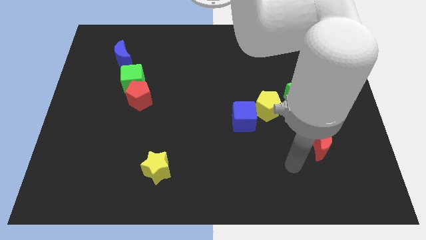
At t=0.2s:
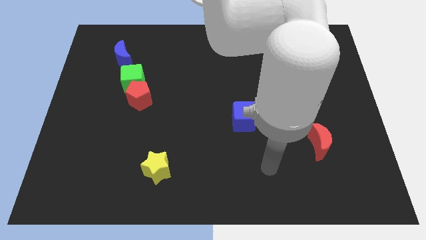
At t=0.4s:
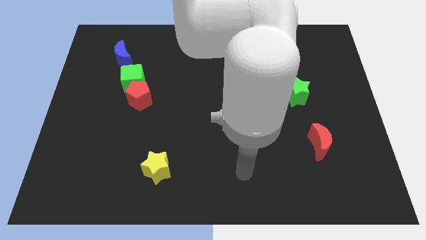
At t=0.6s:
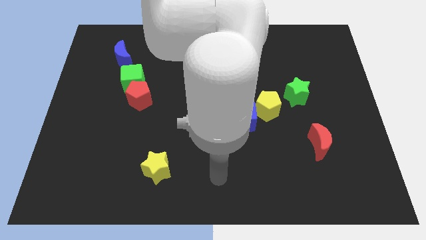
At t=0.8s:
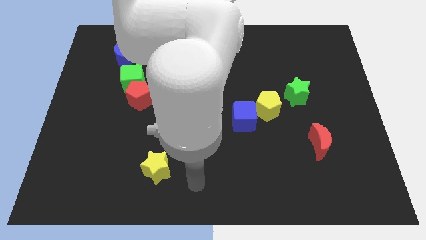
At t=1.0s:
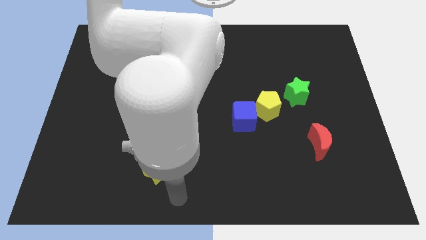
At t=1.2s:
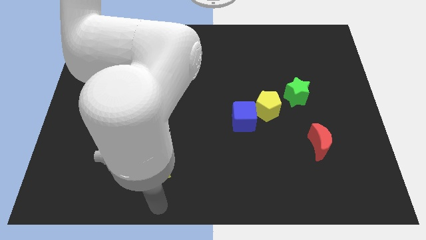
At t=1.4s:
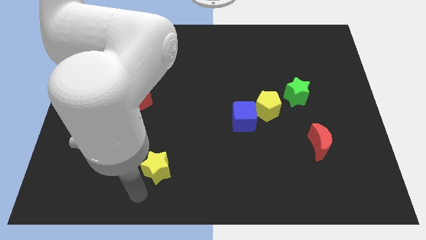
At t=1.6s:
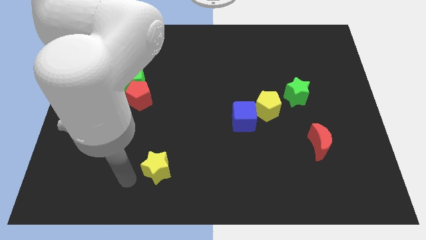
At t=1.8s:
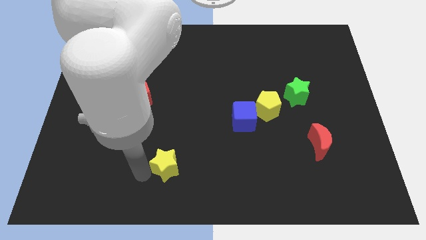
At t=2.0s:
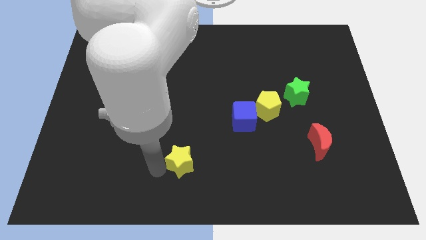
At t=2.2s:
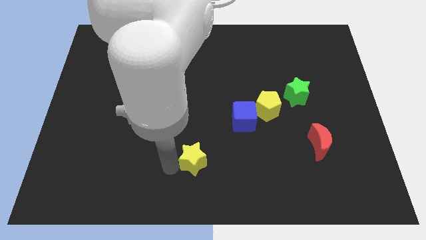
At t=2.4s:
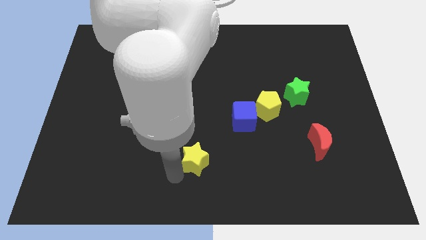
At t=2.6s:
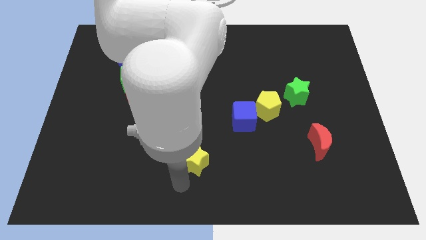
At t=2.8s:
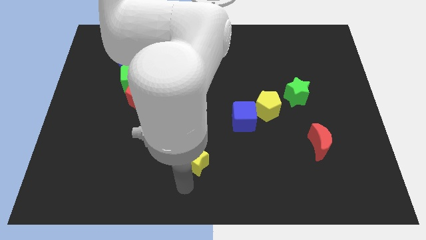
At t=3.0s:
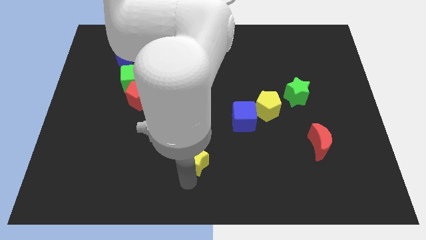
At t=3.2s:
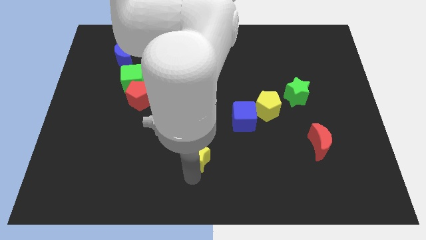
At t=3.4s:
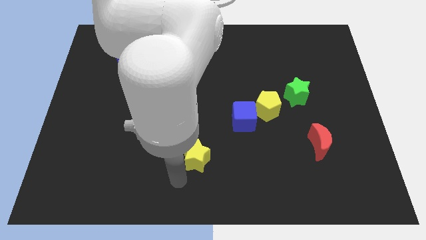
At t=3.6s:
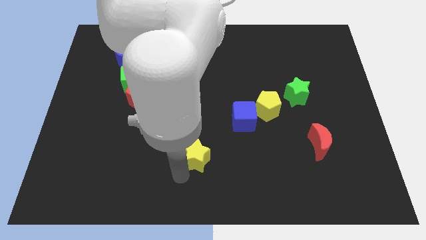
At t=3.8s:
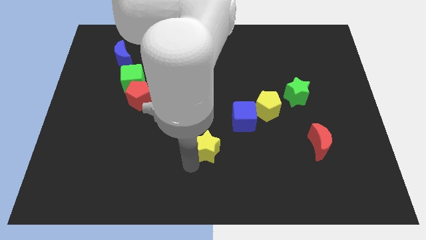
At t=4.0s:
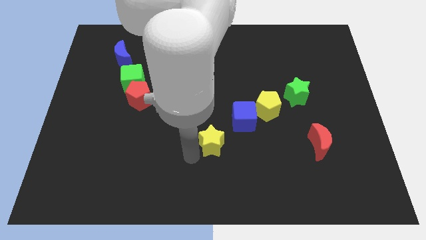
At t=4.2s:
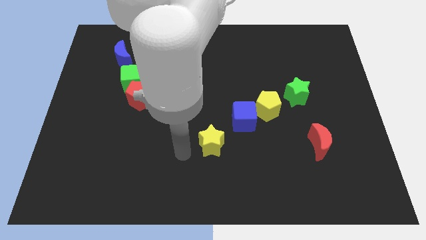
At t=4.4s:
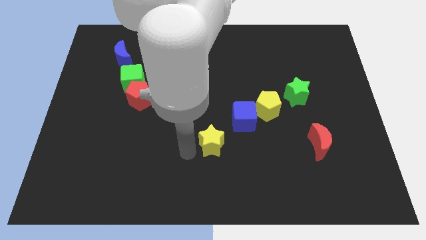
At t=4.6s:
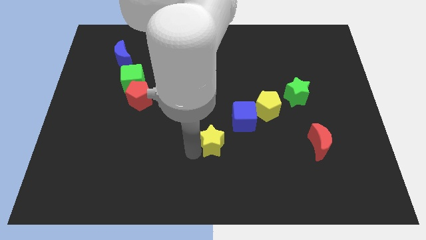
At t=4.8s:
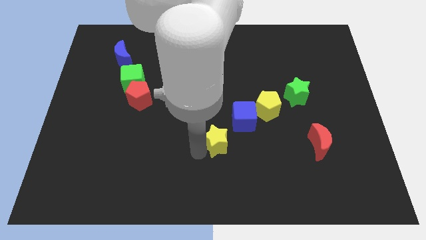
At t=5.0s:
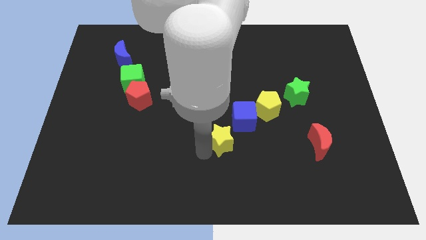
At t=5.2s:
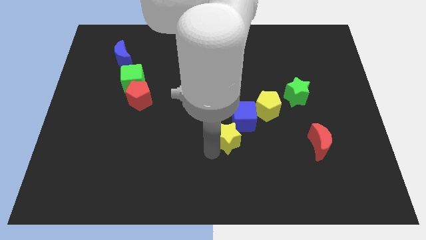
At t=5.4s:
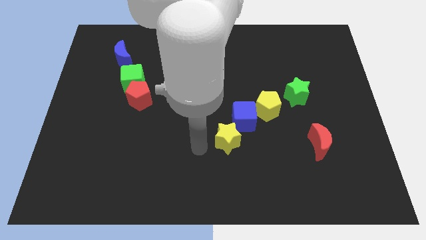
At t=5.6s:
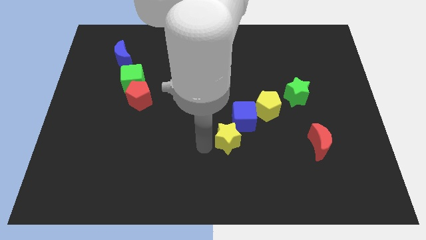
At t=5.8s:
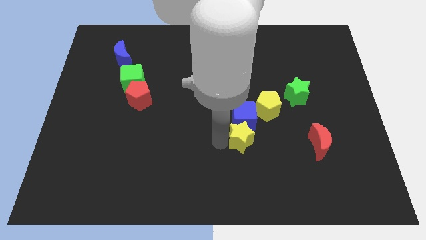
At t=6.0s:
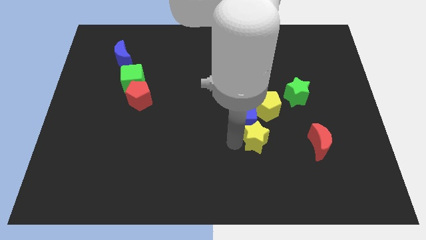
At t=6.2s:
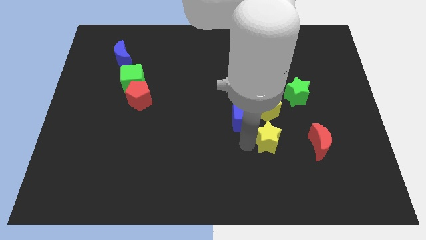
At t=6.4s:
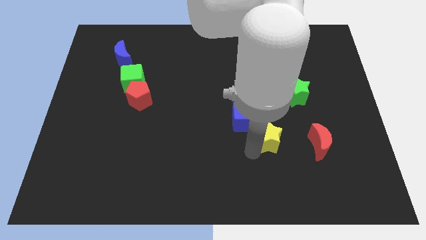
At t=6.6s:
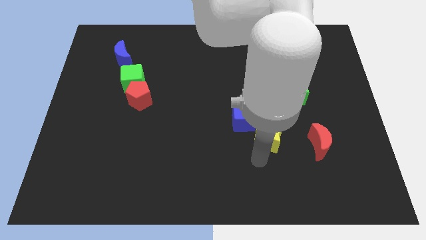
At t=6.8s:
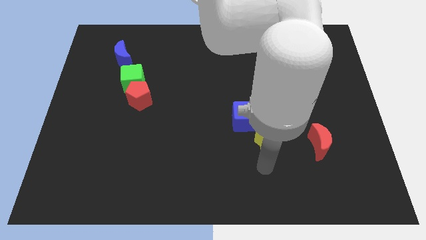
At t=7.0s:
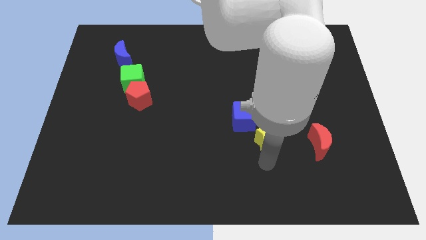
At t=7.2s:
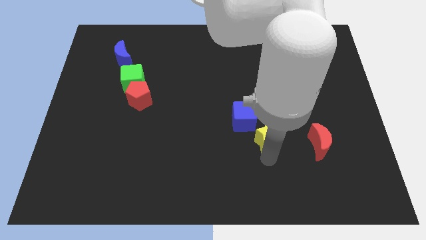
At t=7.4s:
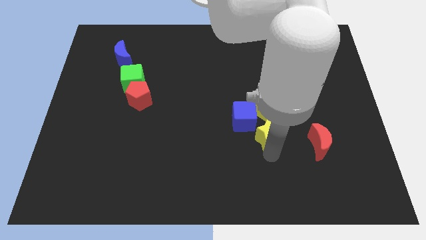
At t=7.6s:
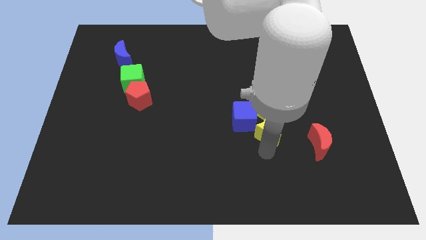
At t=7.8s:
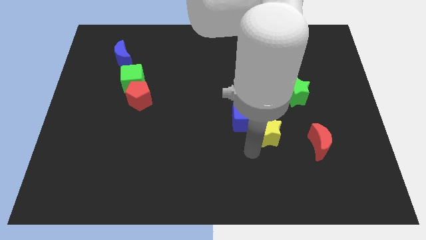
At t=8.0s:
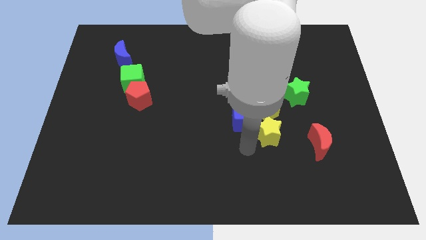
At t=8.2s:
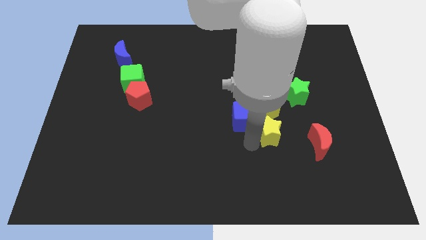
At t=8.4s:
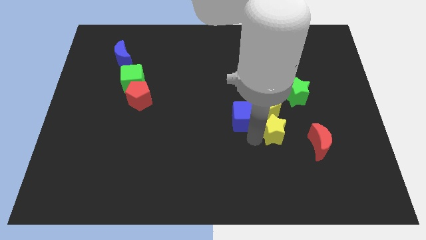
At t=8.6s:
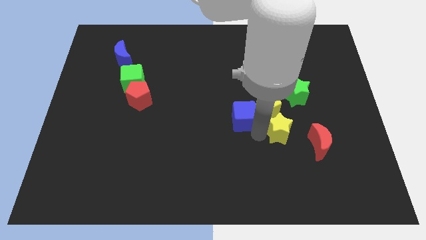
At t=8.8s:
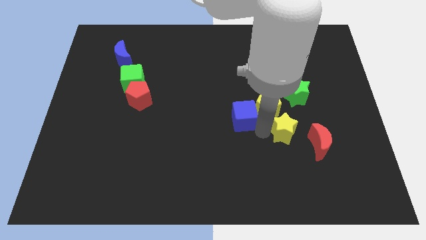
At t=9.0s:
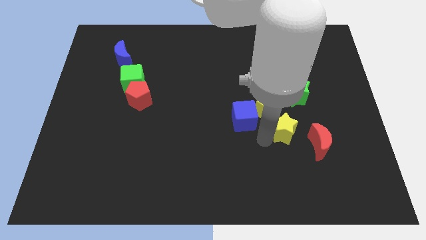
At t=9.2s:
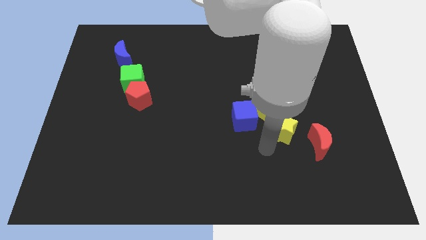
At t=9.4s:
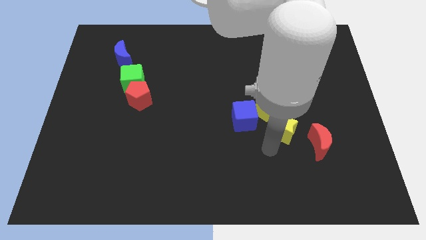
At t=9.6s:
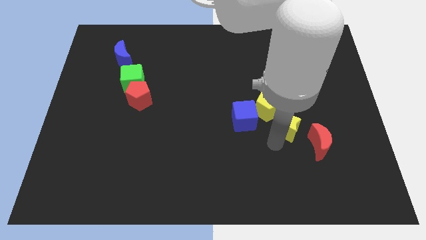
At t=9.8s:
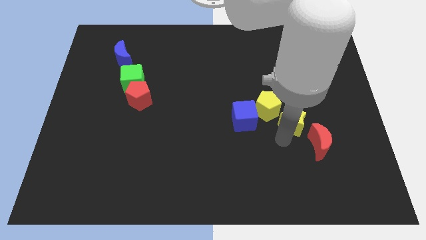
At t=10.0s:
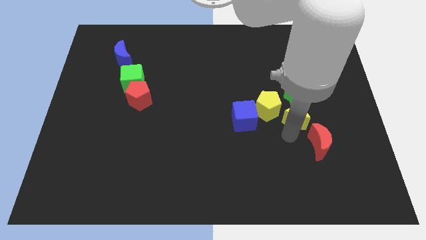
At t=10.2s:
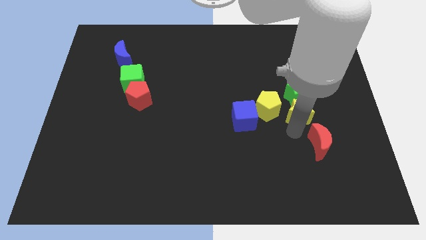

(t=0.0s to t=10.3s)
move the yellow star to the green star

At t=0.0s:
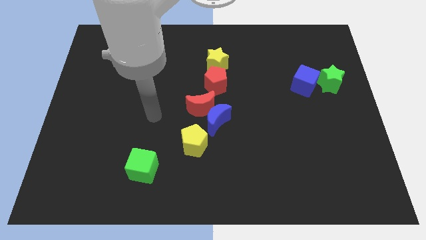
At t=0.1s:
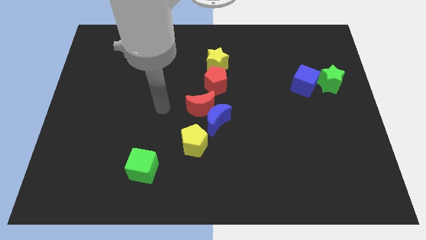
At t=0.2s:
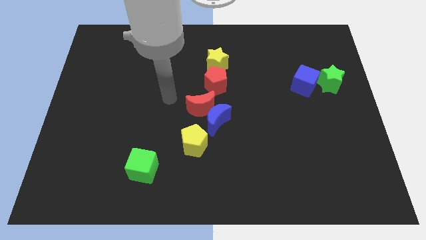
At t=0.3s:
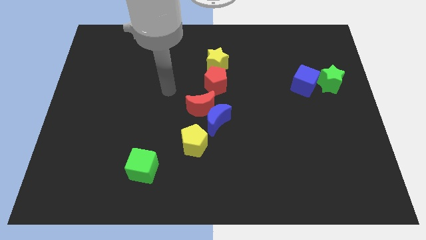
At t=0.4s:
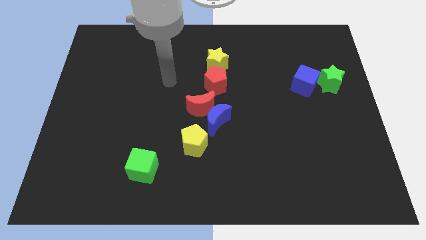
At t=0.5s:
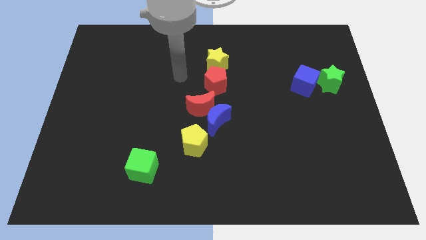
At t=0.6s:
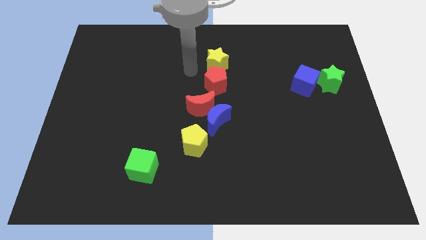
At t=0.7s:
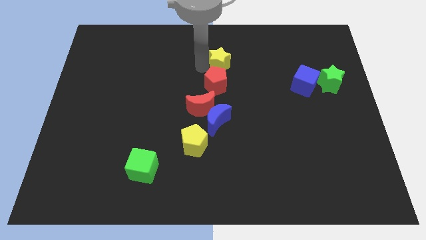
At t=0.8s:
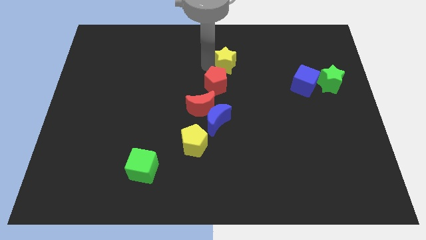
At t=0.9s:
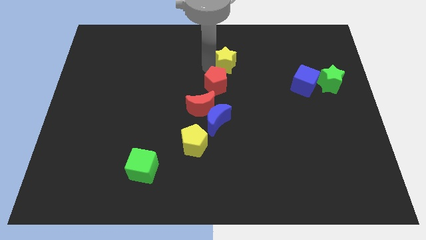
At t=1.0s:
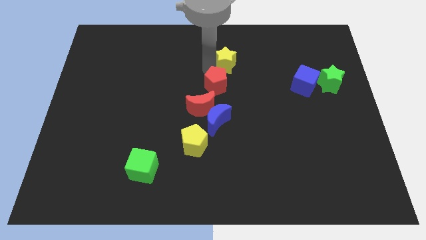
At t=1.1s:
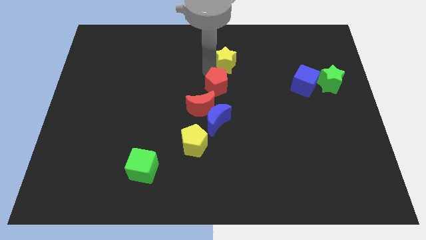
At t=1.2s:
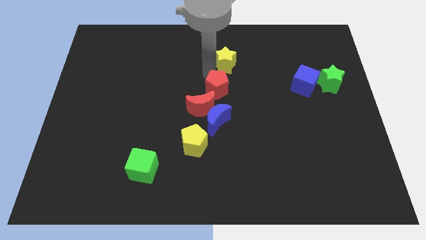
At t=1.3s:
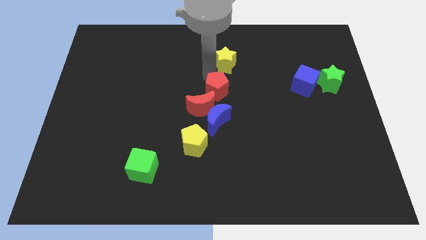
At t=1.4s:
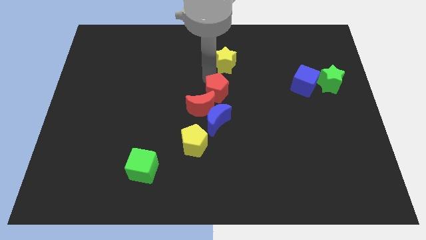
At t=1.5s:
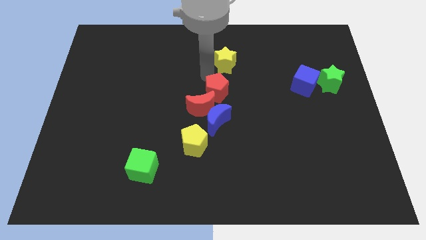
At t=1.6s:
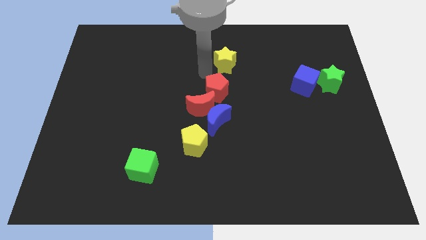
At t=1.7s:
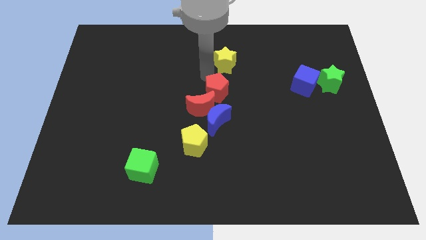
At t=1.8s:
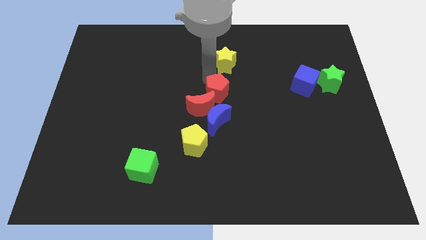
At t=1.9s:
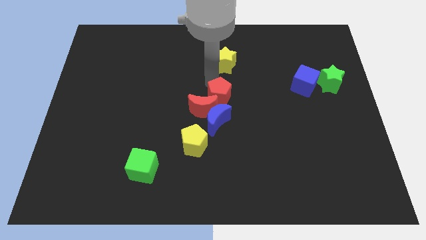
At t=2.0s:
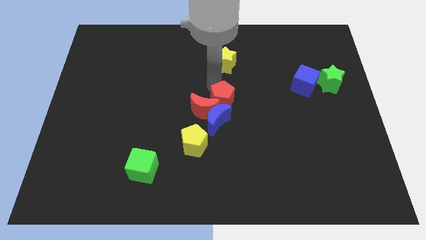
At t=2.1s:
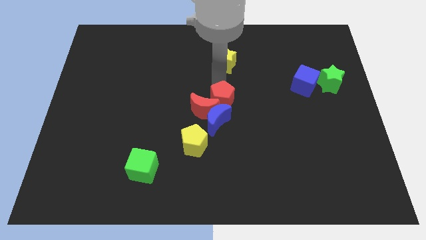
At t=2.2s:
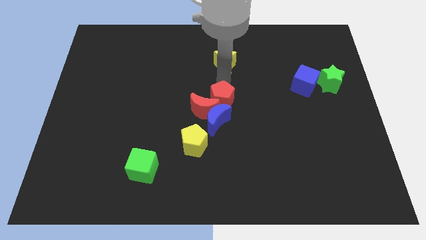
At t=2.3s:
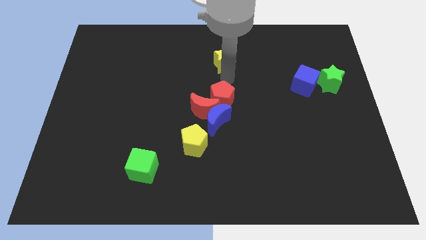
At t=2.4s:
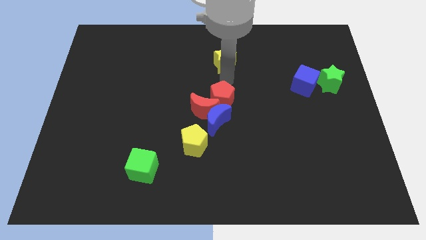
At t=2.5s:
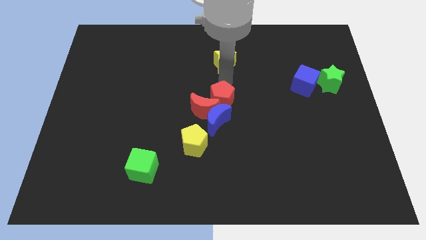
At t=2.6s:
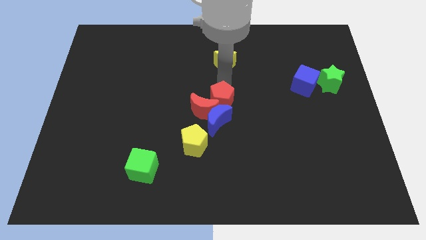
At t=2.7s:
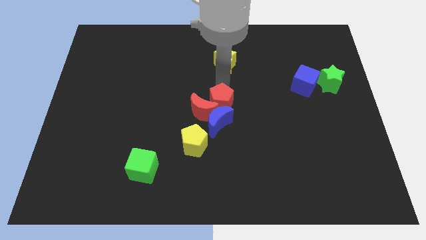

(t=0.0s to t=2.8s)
push the red pentagon towards the blue moon
